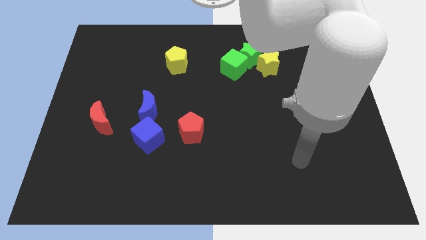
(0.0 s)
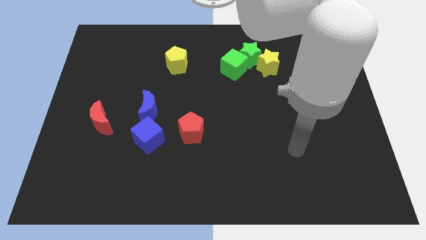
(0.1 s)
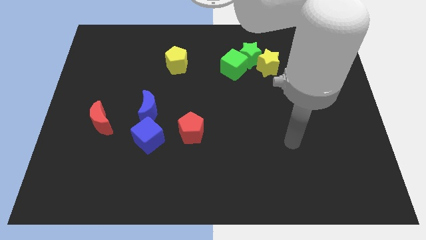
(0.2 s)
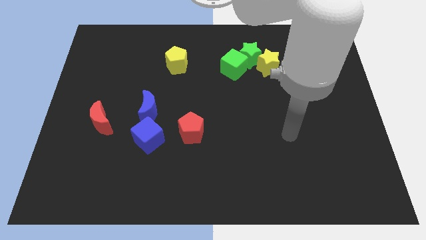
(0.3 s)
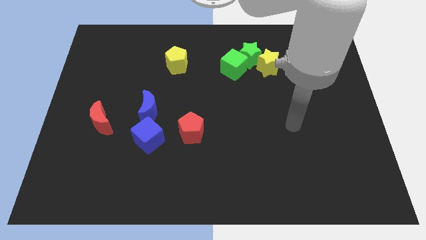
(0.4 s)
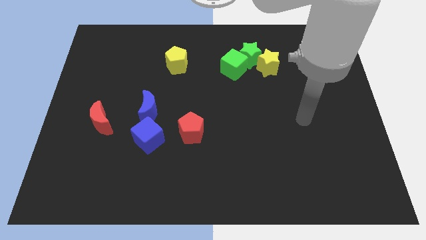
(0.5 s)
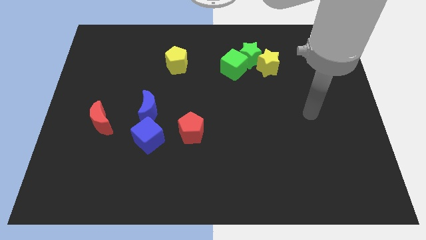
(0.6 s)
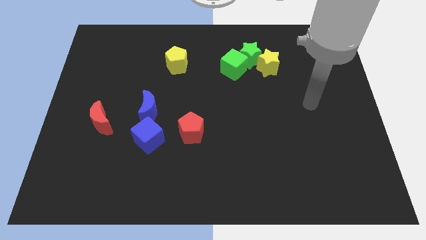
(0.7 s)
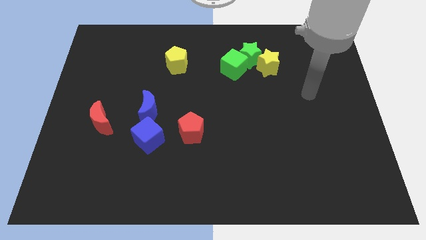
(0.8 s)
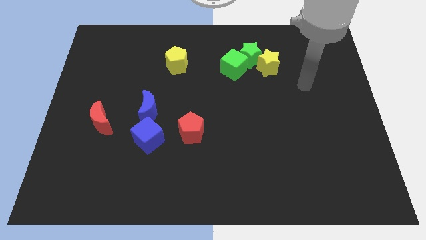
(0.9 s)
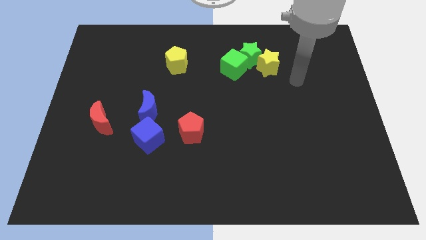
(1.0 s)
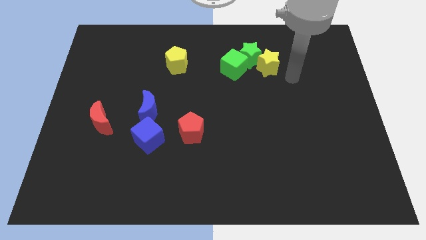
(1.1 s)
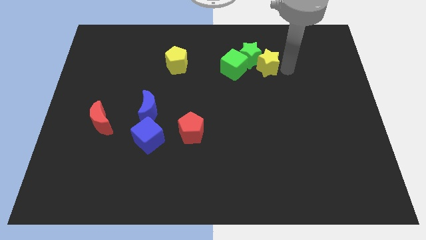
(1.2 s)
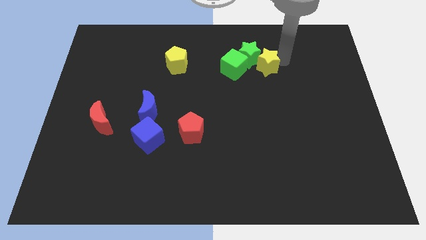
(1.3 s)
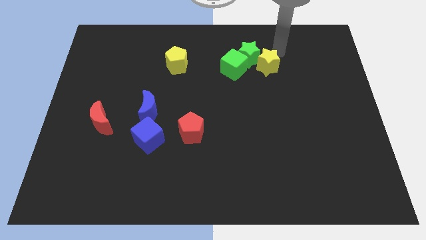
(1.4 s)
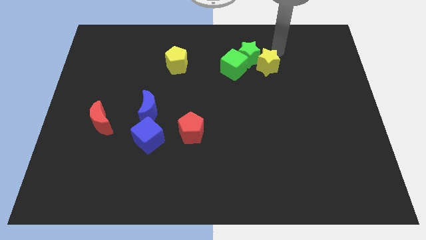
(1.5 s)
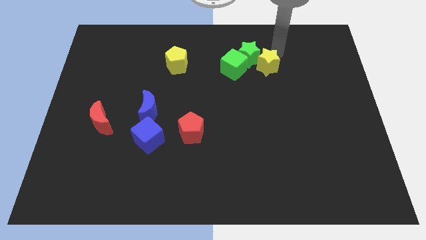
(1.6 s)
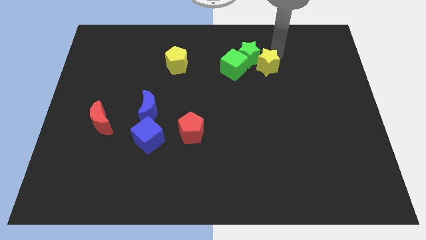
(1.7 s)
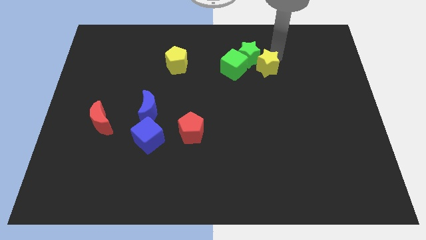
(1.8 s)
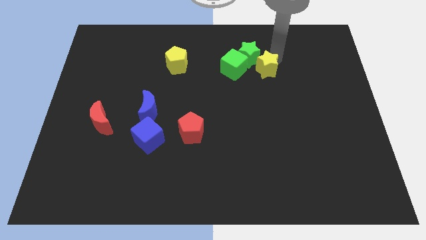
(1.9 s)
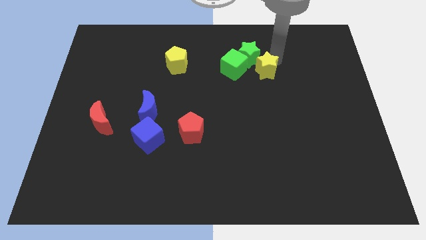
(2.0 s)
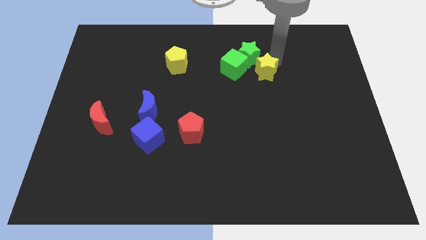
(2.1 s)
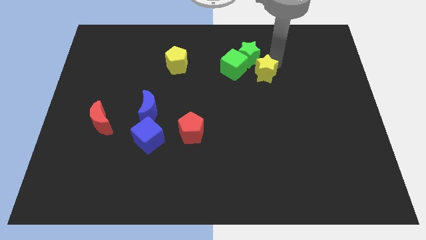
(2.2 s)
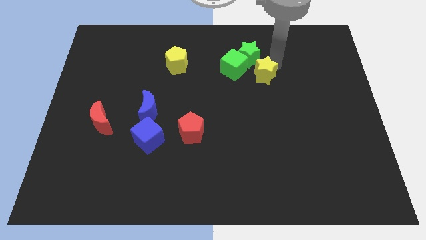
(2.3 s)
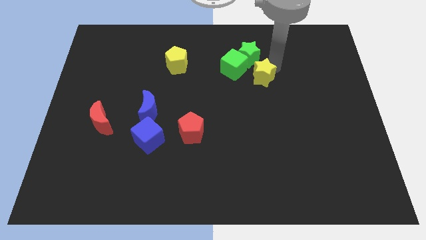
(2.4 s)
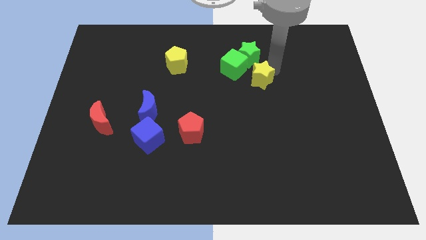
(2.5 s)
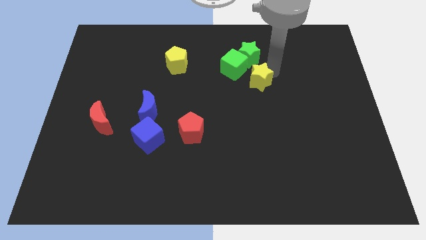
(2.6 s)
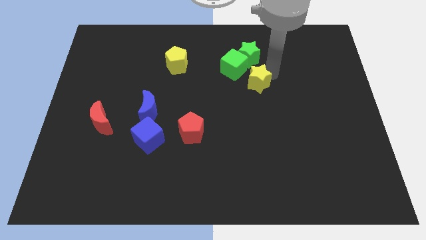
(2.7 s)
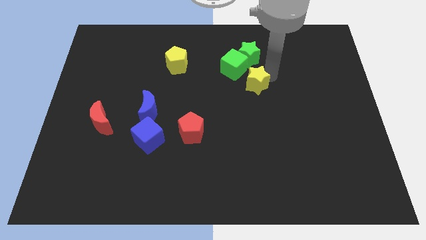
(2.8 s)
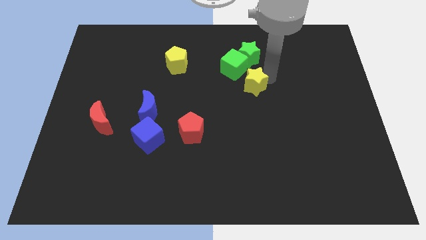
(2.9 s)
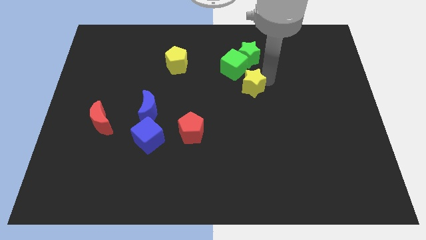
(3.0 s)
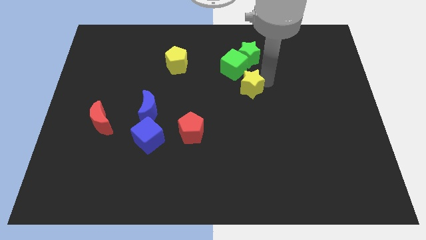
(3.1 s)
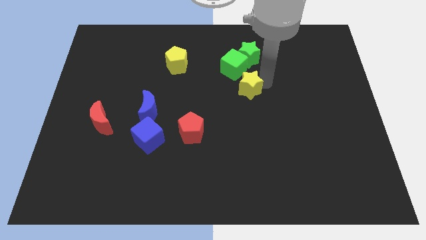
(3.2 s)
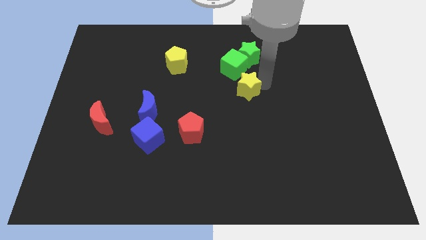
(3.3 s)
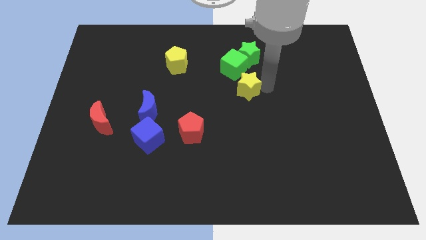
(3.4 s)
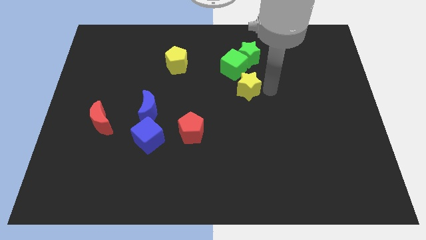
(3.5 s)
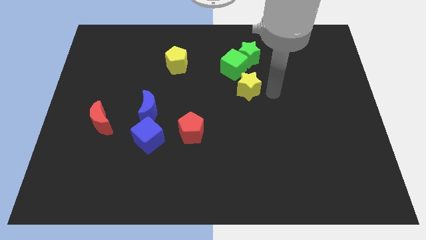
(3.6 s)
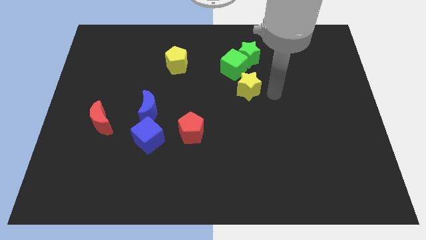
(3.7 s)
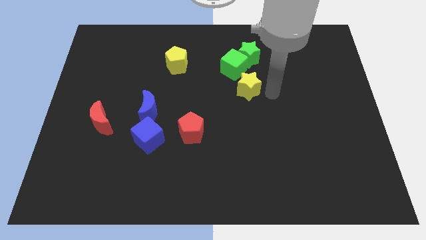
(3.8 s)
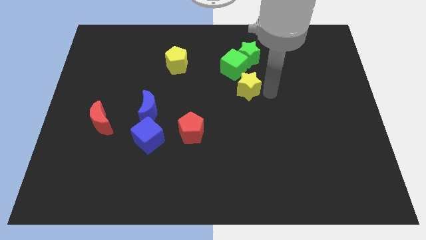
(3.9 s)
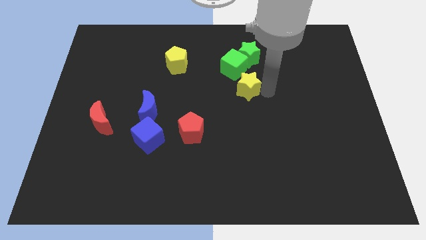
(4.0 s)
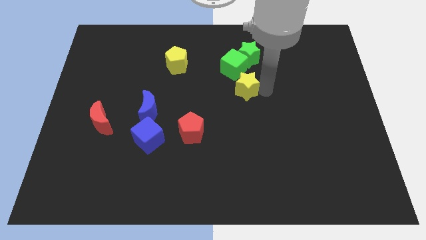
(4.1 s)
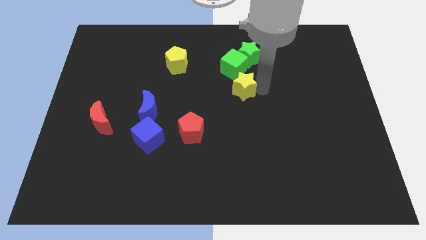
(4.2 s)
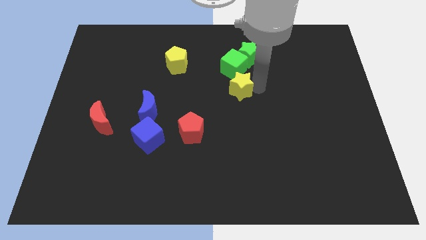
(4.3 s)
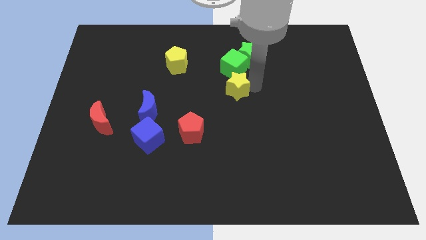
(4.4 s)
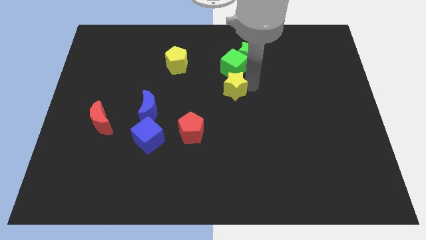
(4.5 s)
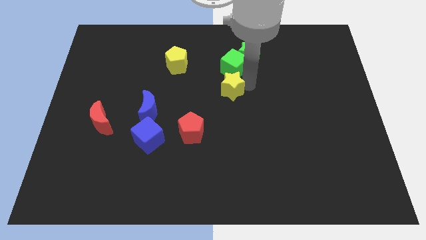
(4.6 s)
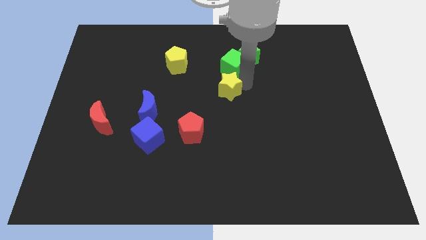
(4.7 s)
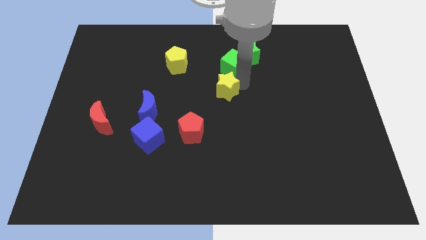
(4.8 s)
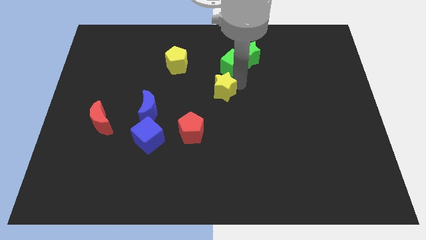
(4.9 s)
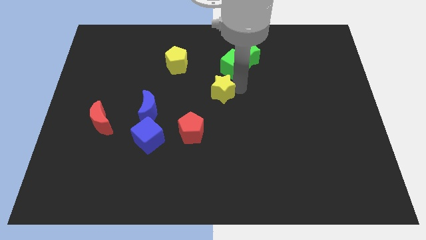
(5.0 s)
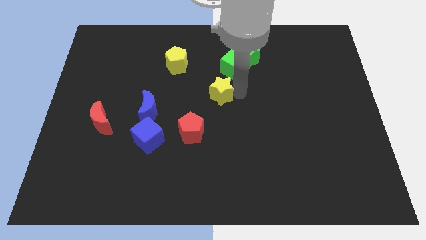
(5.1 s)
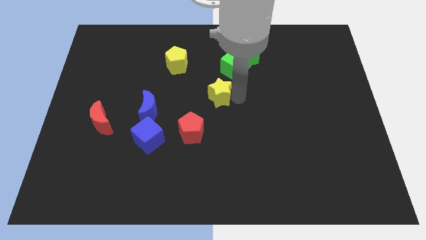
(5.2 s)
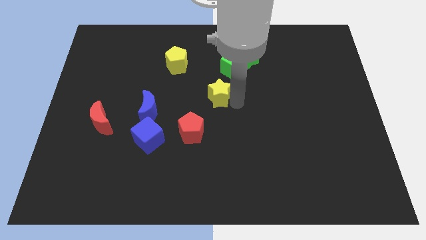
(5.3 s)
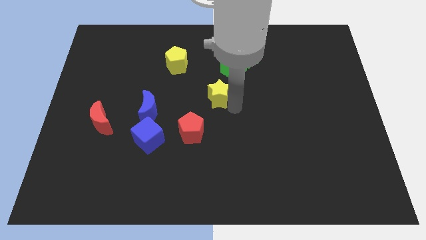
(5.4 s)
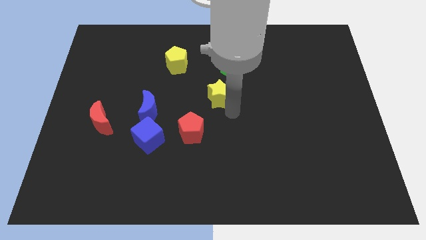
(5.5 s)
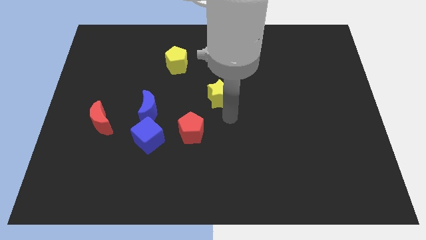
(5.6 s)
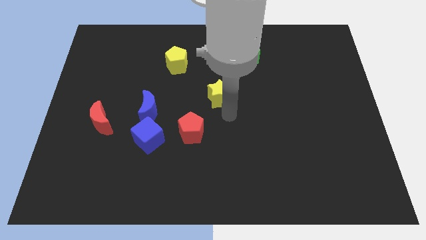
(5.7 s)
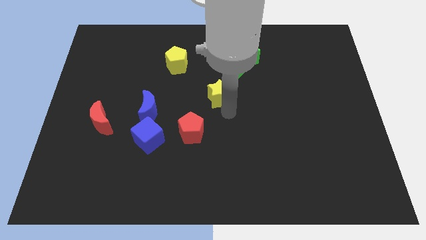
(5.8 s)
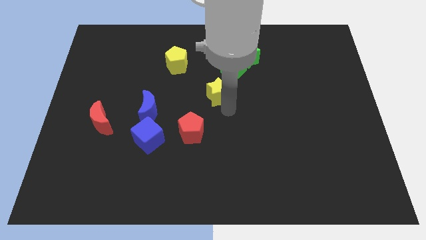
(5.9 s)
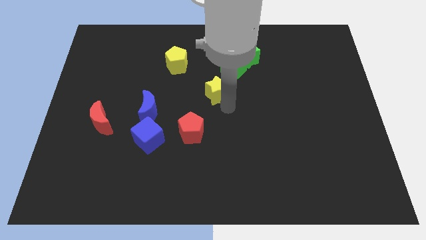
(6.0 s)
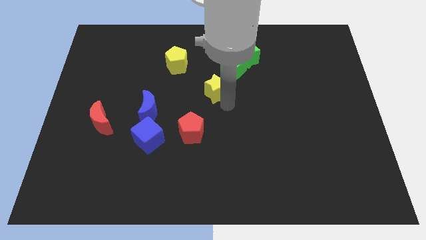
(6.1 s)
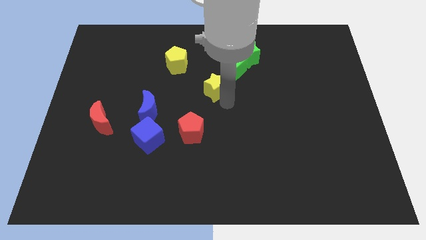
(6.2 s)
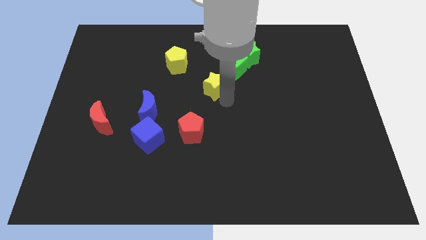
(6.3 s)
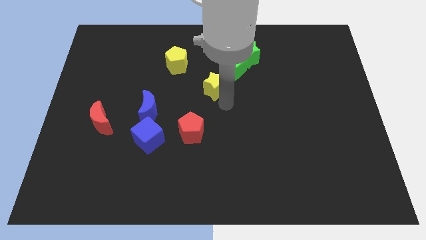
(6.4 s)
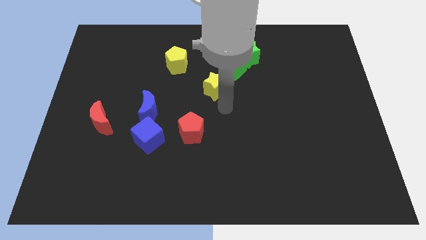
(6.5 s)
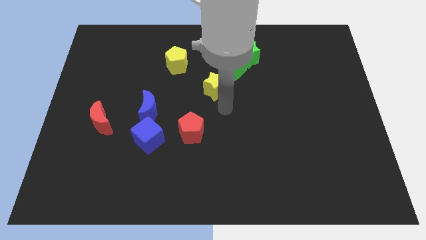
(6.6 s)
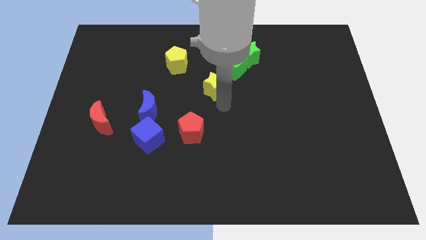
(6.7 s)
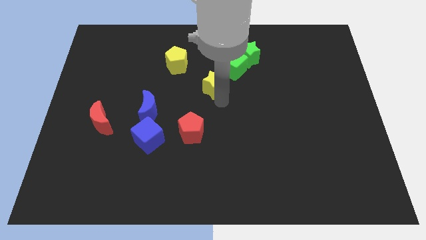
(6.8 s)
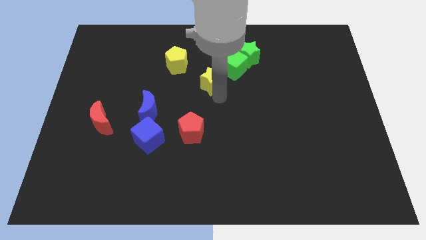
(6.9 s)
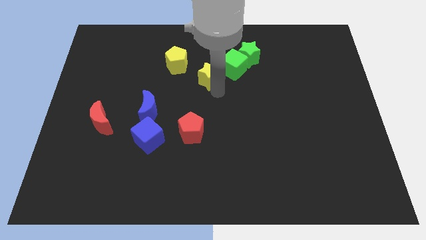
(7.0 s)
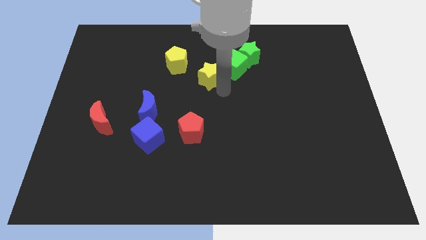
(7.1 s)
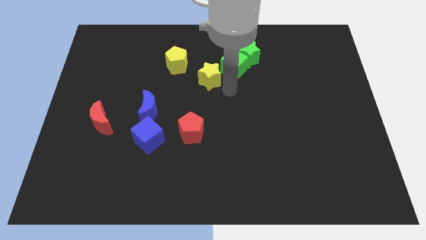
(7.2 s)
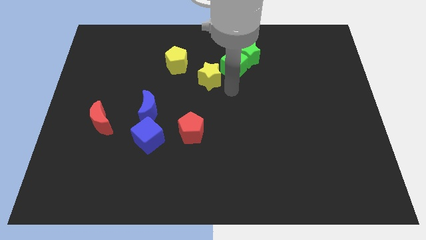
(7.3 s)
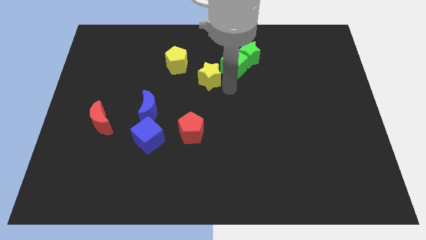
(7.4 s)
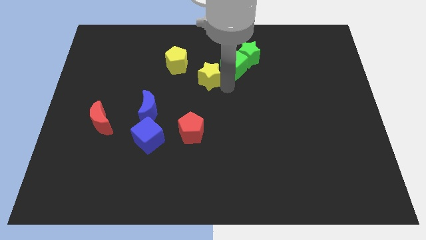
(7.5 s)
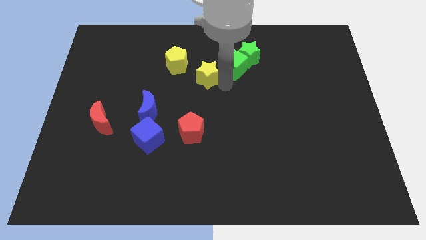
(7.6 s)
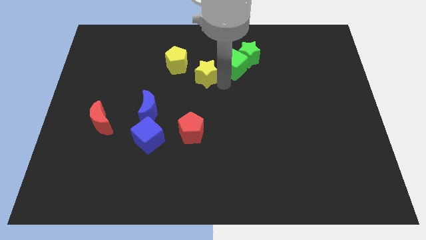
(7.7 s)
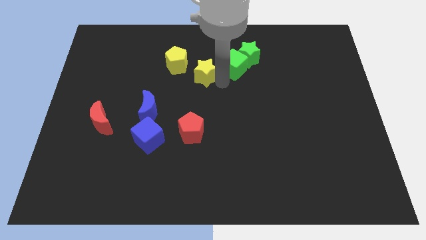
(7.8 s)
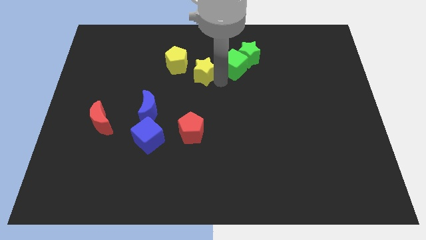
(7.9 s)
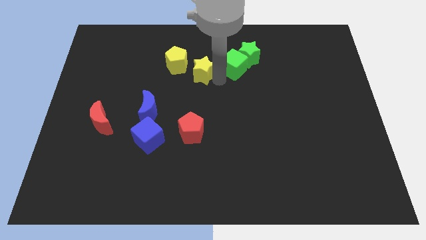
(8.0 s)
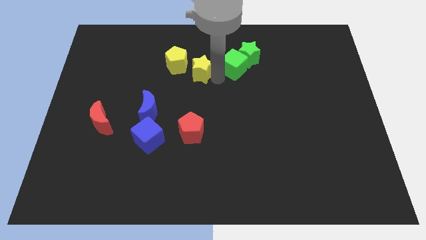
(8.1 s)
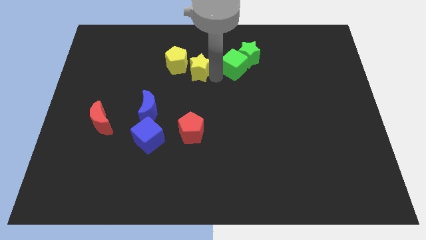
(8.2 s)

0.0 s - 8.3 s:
push the yellow star to the yellow pentagon
